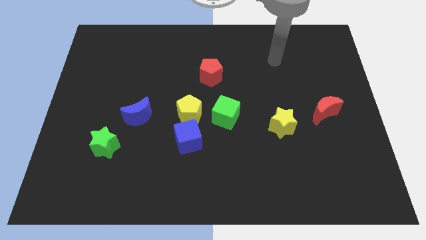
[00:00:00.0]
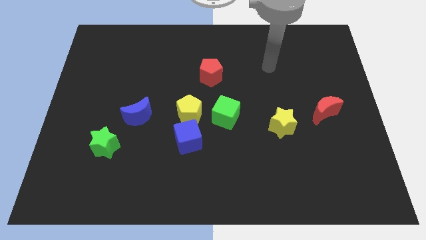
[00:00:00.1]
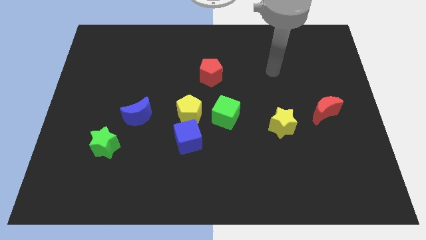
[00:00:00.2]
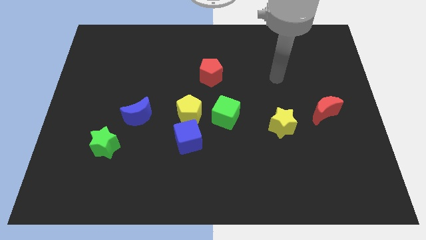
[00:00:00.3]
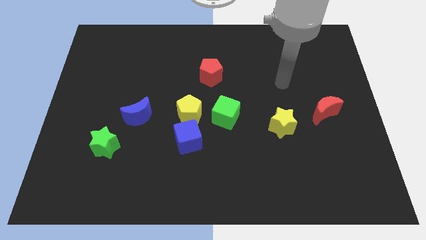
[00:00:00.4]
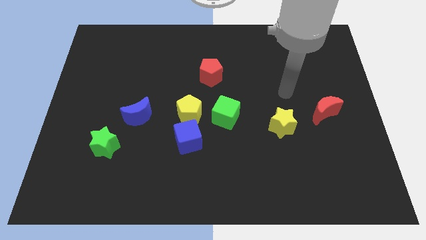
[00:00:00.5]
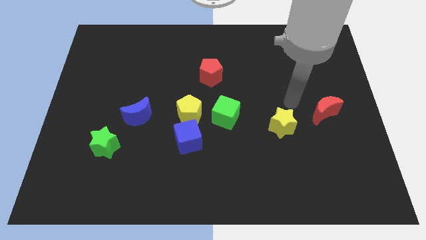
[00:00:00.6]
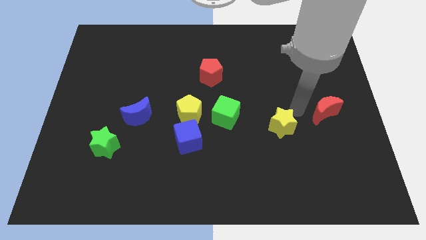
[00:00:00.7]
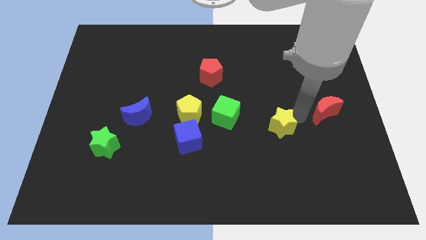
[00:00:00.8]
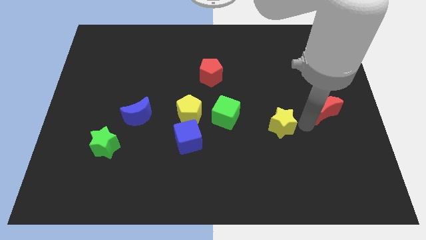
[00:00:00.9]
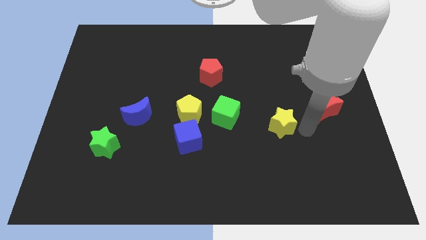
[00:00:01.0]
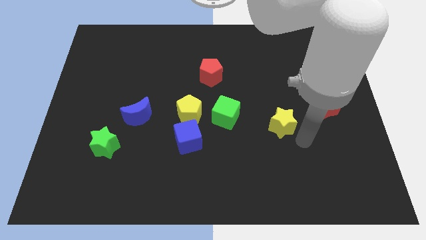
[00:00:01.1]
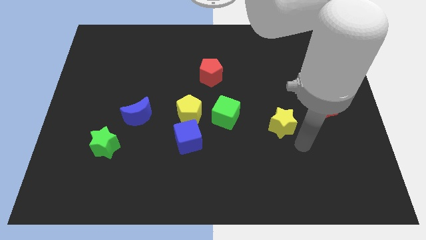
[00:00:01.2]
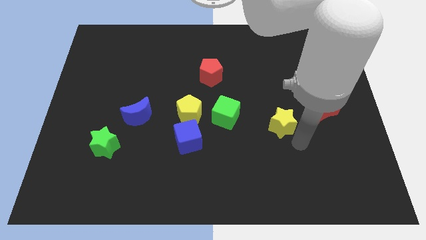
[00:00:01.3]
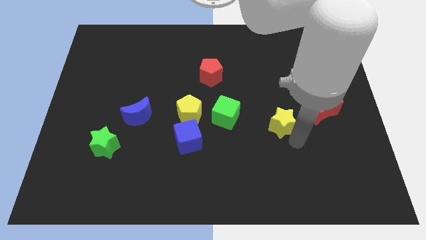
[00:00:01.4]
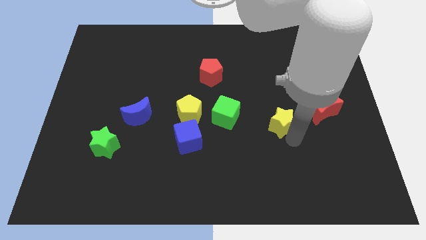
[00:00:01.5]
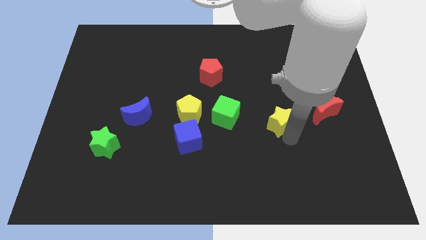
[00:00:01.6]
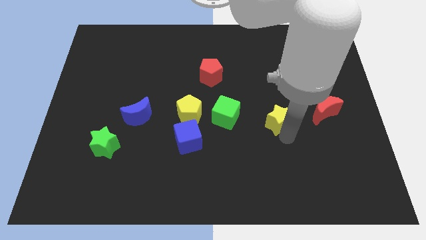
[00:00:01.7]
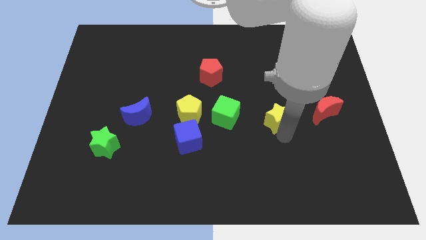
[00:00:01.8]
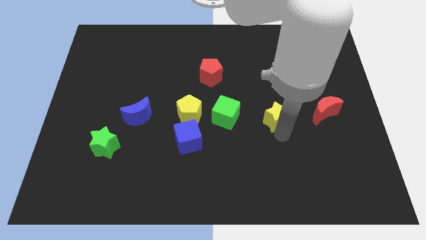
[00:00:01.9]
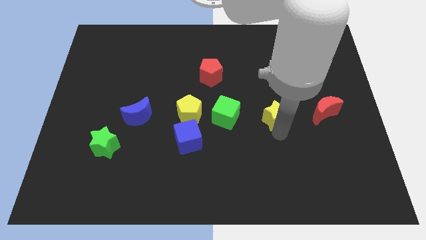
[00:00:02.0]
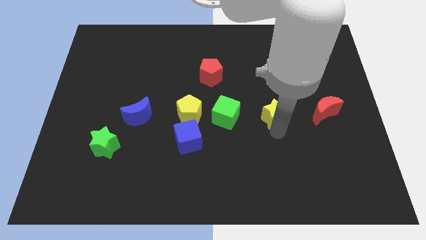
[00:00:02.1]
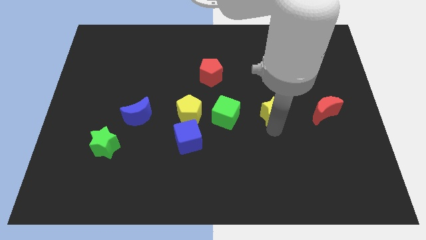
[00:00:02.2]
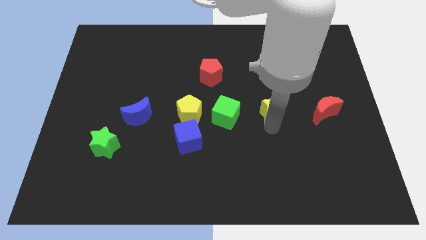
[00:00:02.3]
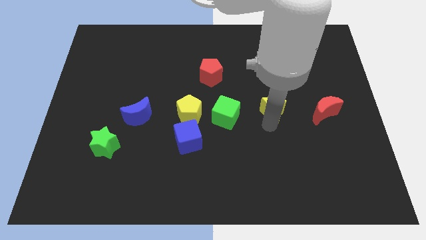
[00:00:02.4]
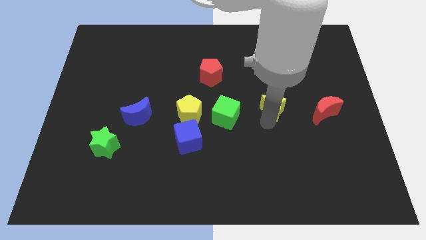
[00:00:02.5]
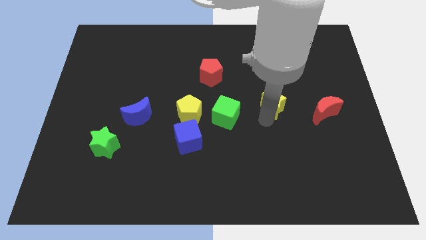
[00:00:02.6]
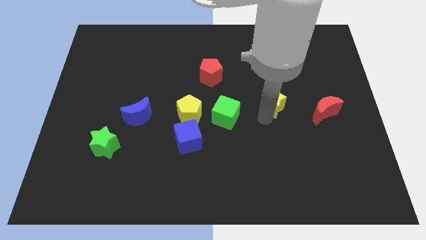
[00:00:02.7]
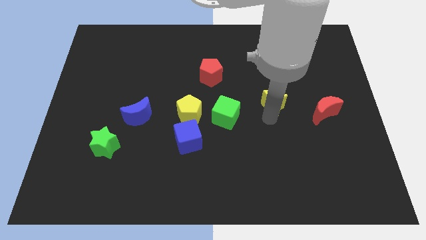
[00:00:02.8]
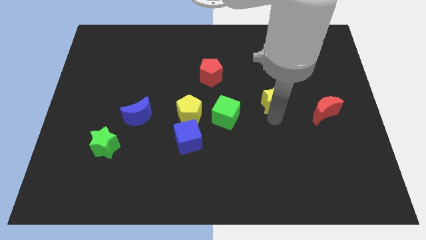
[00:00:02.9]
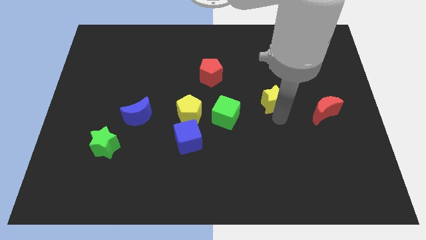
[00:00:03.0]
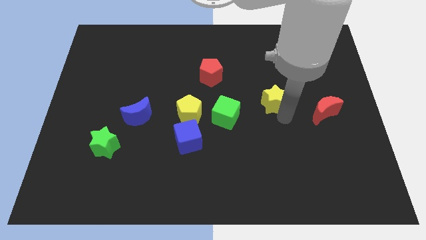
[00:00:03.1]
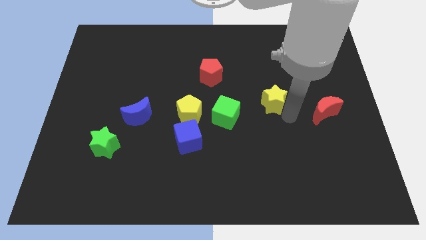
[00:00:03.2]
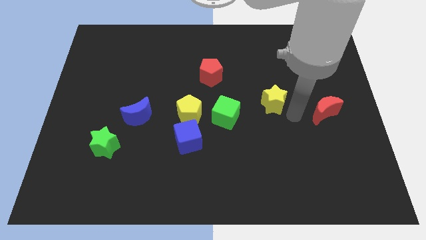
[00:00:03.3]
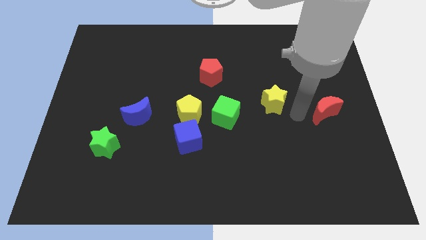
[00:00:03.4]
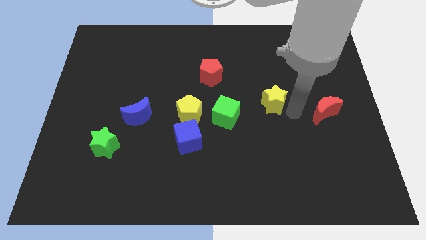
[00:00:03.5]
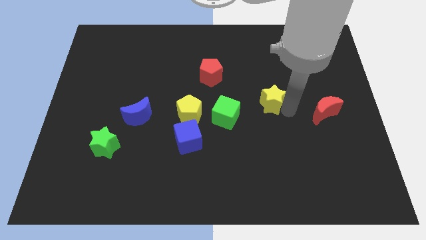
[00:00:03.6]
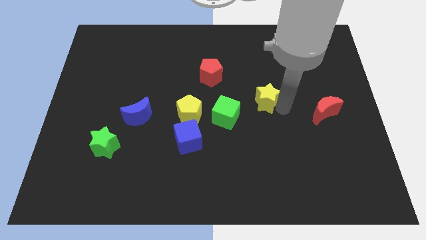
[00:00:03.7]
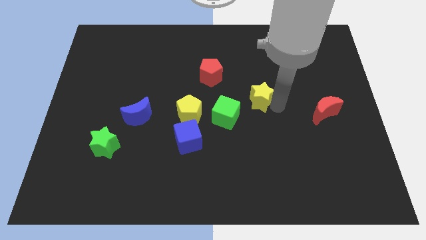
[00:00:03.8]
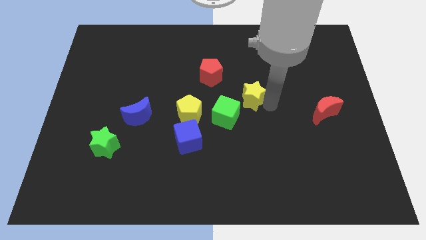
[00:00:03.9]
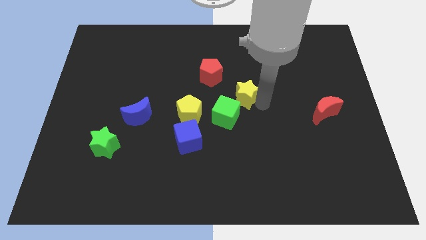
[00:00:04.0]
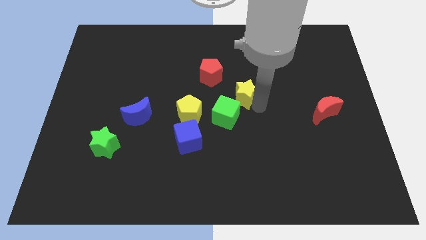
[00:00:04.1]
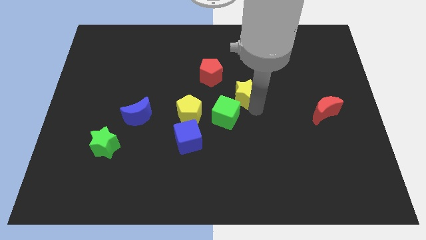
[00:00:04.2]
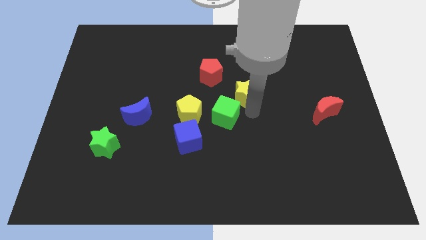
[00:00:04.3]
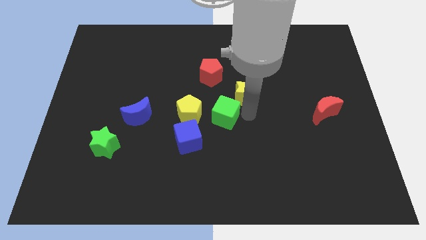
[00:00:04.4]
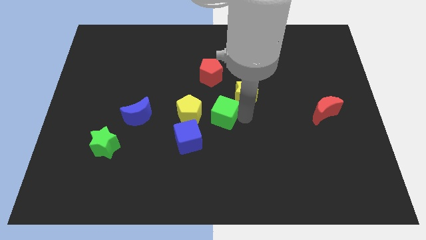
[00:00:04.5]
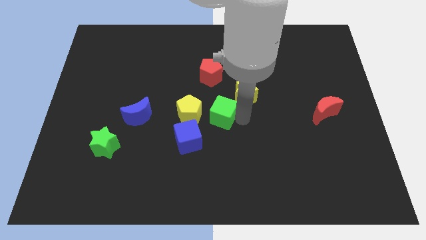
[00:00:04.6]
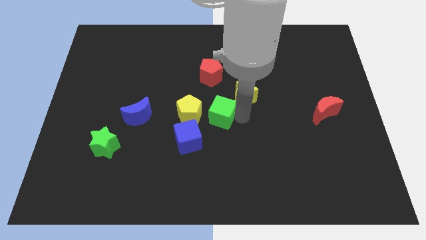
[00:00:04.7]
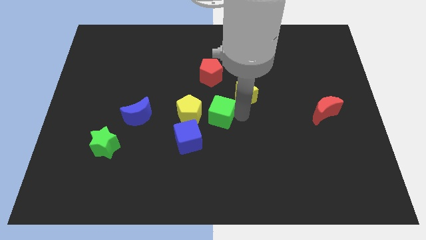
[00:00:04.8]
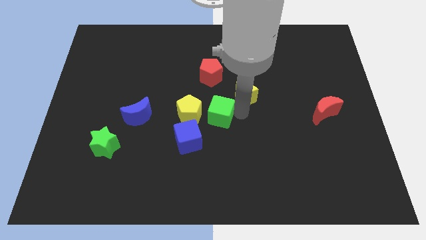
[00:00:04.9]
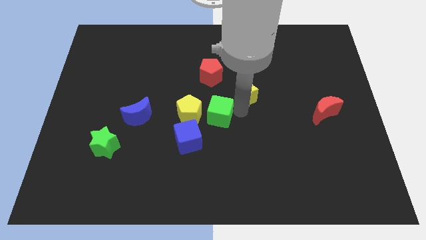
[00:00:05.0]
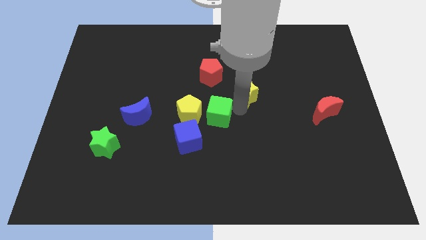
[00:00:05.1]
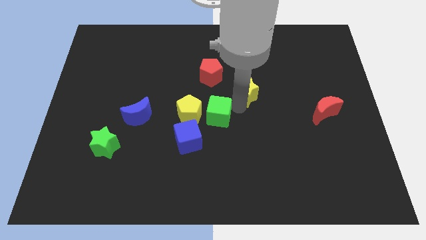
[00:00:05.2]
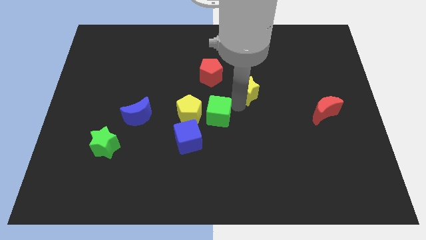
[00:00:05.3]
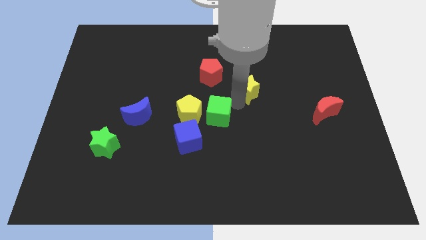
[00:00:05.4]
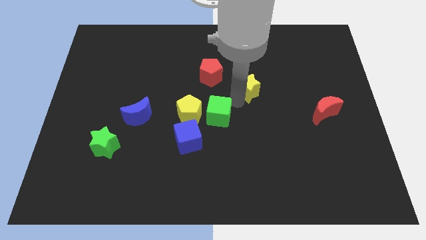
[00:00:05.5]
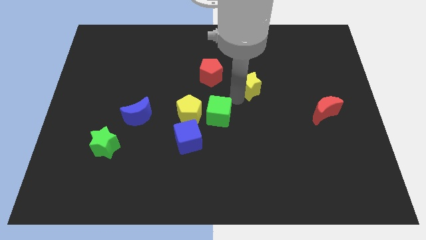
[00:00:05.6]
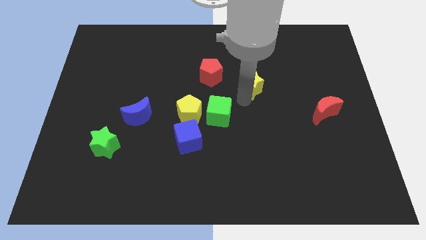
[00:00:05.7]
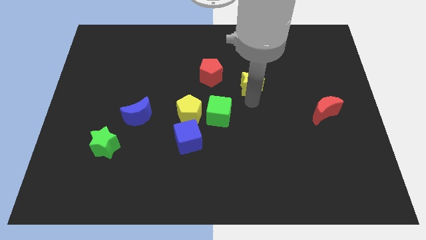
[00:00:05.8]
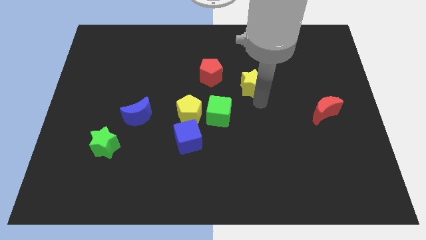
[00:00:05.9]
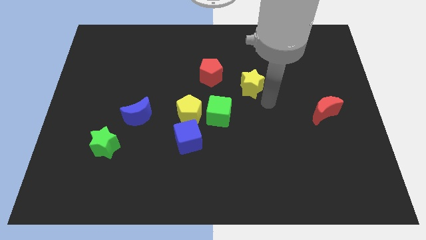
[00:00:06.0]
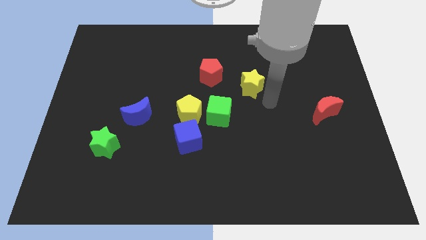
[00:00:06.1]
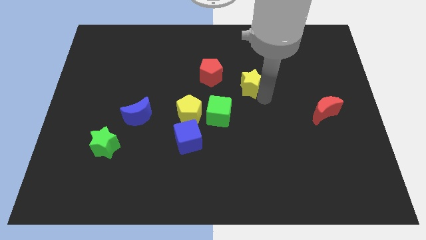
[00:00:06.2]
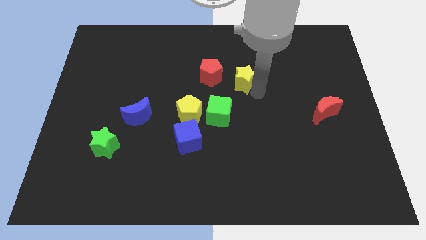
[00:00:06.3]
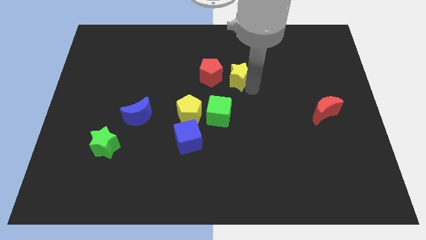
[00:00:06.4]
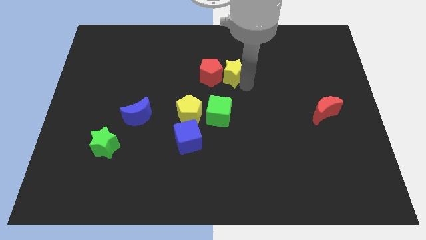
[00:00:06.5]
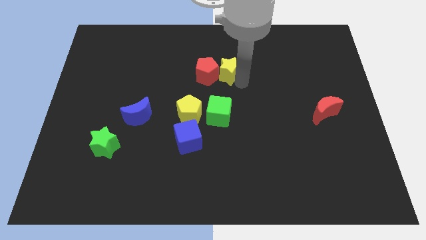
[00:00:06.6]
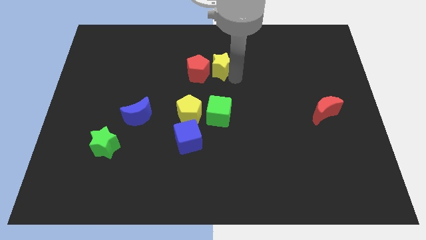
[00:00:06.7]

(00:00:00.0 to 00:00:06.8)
push the yellow star diagonally up and to the left

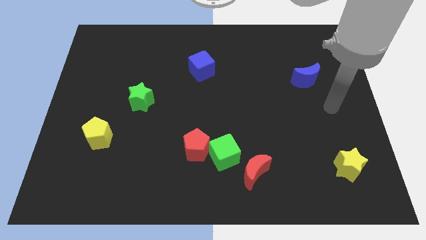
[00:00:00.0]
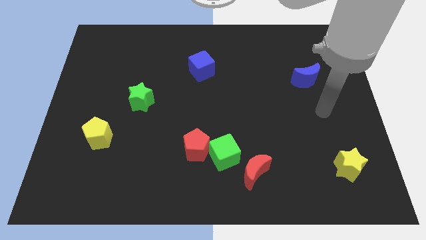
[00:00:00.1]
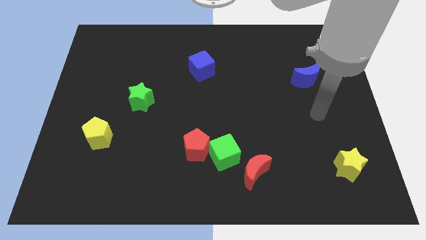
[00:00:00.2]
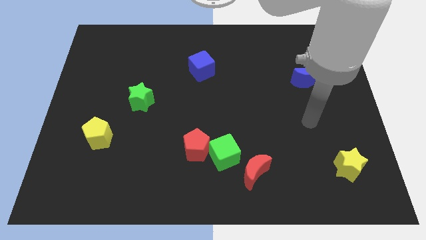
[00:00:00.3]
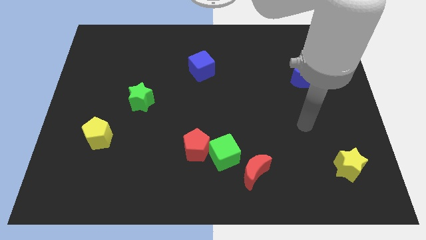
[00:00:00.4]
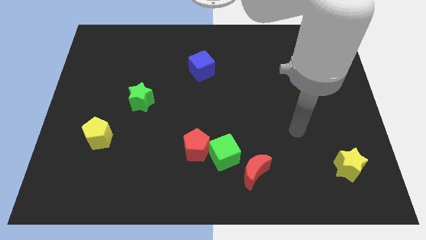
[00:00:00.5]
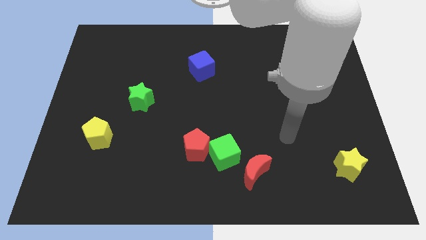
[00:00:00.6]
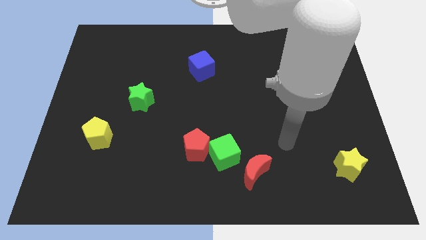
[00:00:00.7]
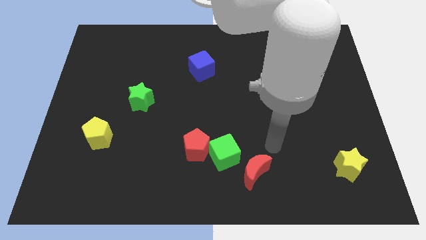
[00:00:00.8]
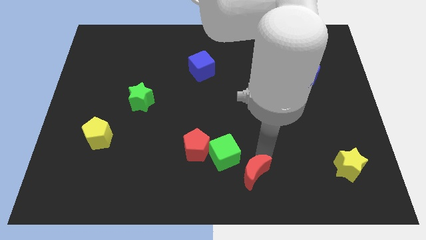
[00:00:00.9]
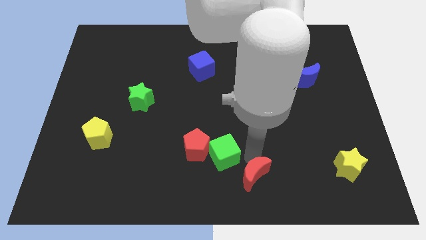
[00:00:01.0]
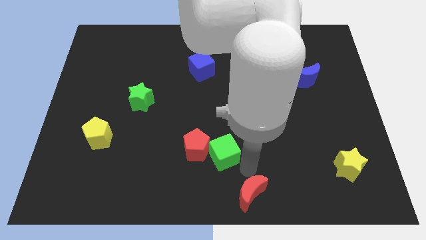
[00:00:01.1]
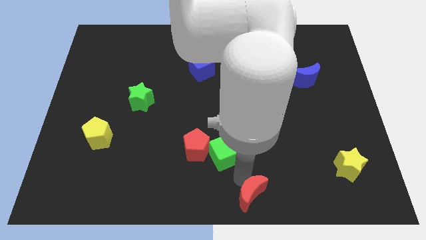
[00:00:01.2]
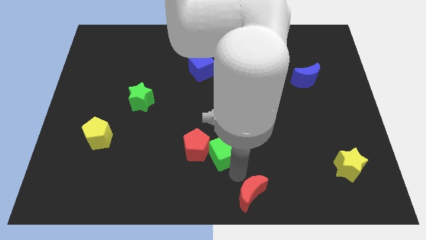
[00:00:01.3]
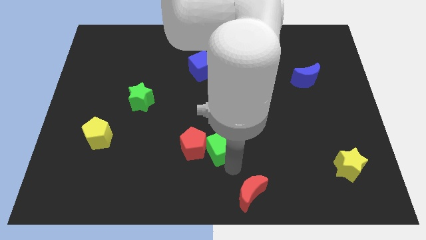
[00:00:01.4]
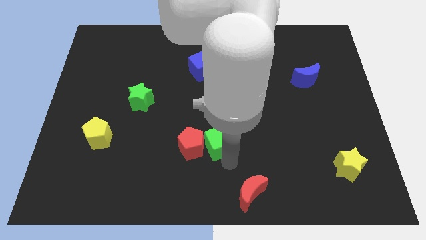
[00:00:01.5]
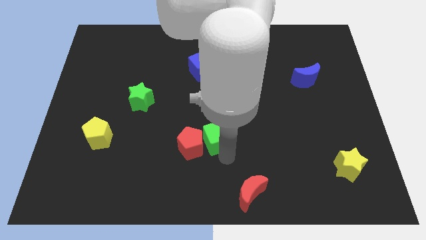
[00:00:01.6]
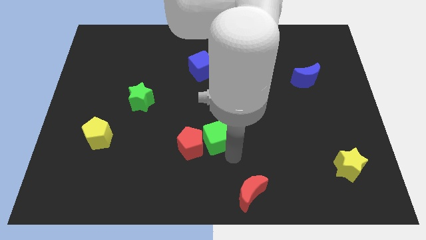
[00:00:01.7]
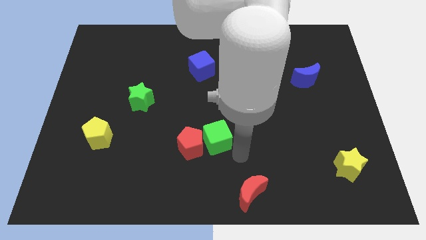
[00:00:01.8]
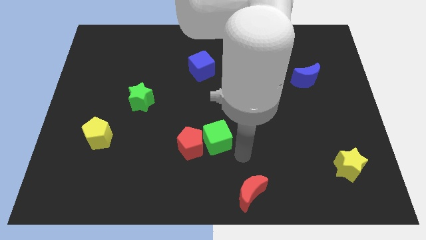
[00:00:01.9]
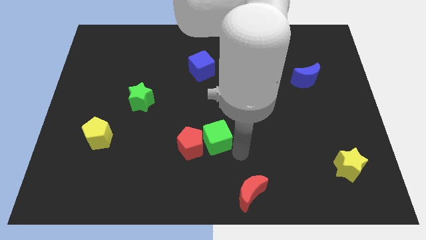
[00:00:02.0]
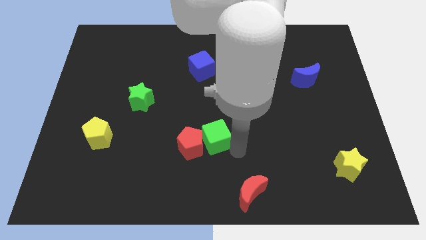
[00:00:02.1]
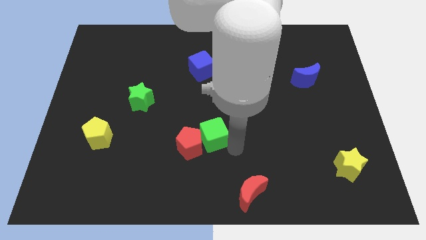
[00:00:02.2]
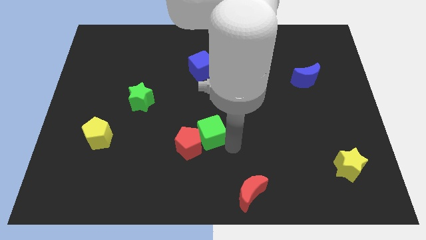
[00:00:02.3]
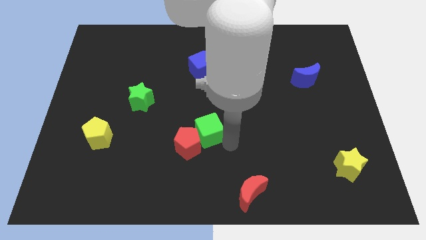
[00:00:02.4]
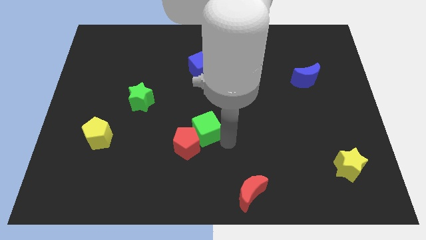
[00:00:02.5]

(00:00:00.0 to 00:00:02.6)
slide the green cube up and left diagonally a little
